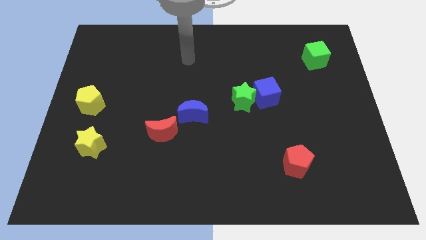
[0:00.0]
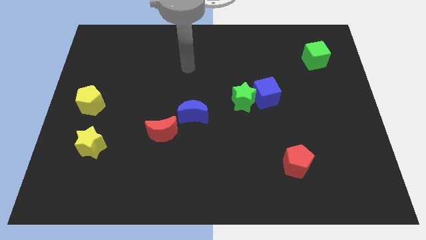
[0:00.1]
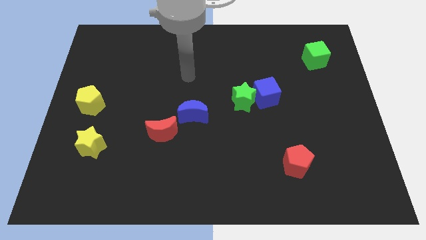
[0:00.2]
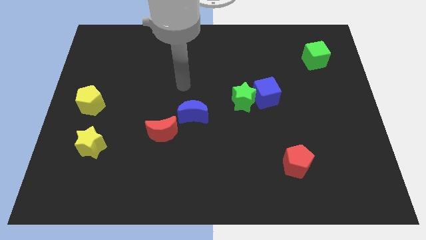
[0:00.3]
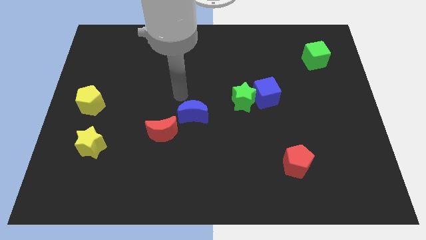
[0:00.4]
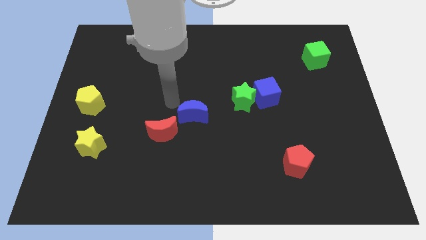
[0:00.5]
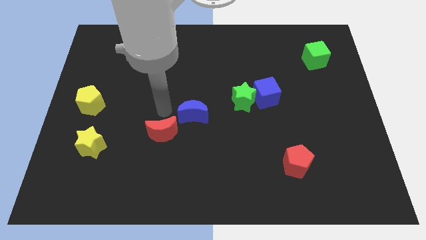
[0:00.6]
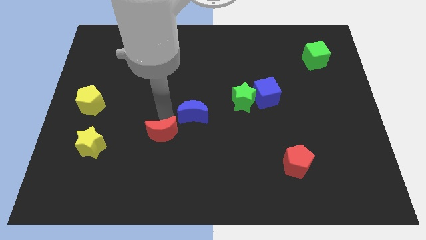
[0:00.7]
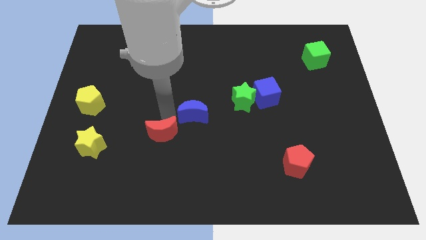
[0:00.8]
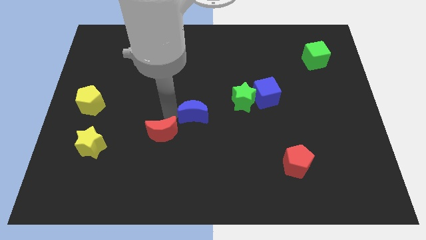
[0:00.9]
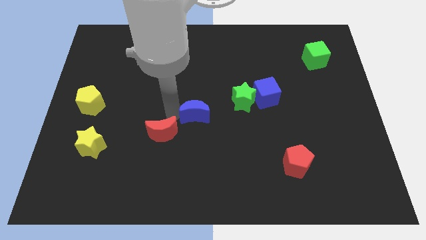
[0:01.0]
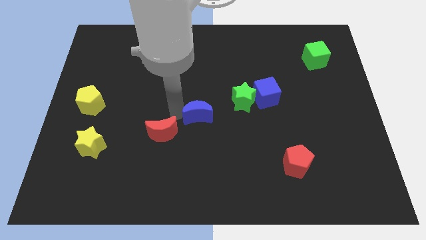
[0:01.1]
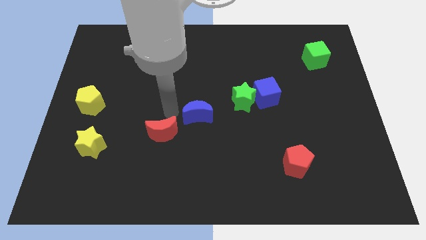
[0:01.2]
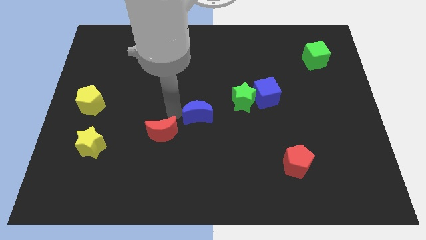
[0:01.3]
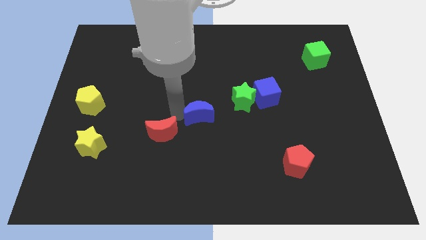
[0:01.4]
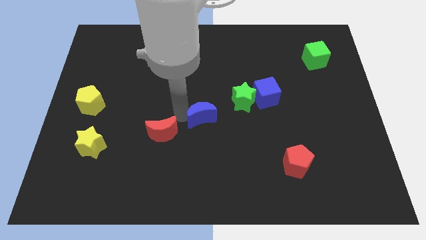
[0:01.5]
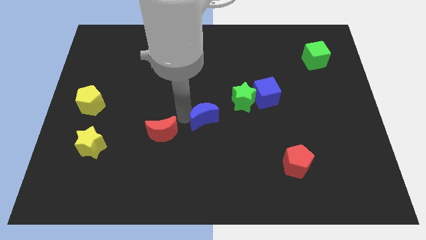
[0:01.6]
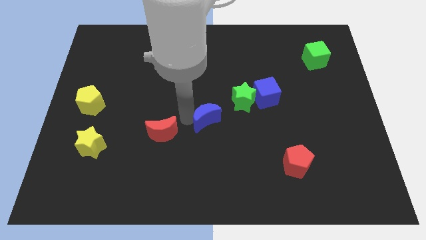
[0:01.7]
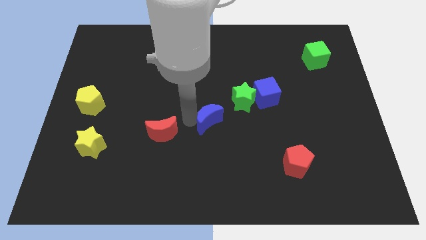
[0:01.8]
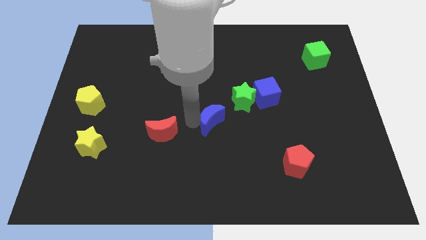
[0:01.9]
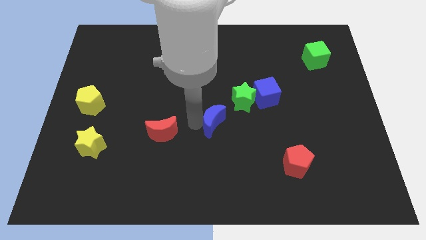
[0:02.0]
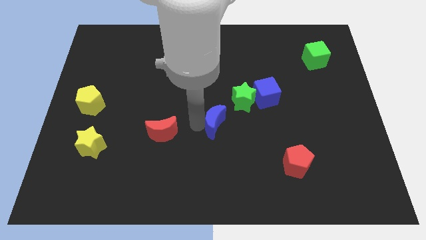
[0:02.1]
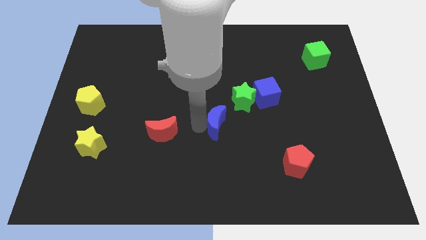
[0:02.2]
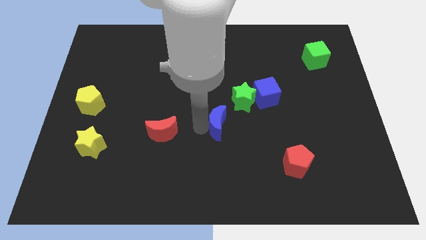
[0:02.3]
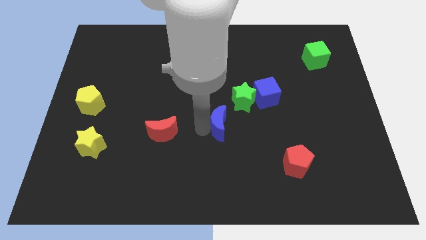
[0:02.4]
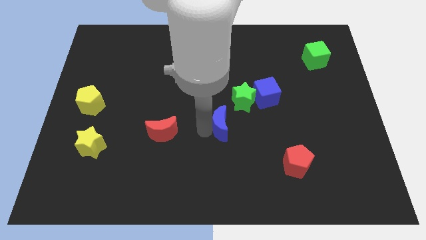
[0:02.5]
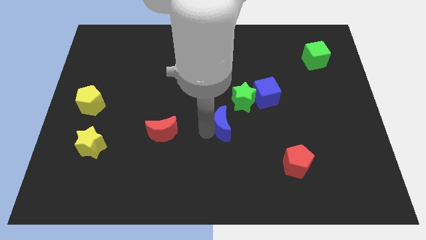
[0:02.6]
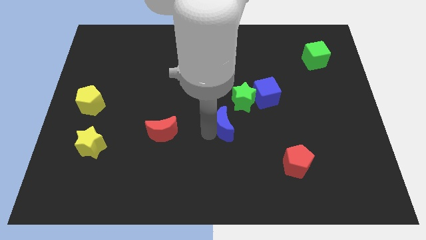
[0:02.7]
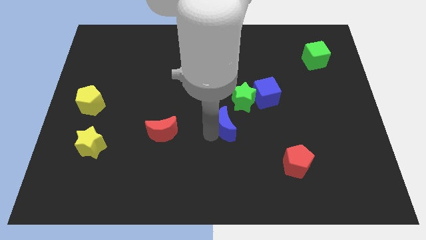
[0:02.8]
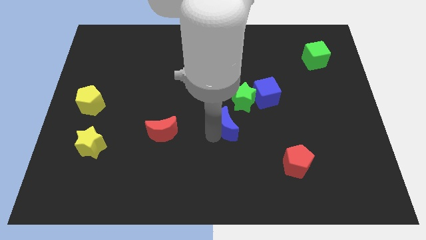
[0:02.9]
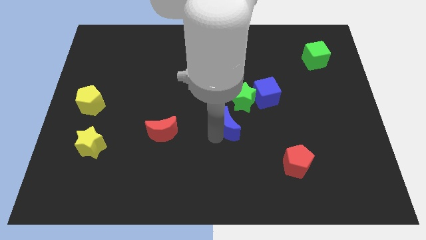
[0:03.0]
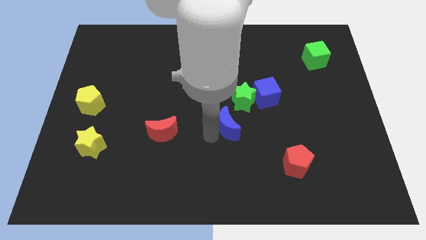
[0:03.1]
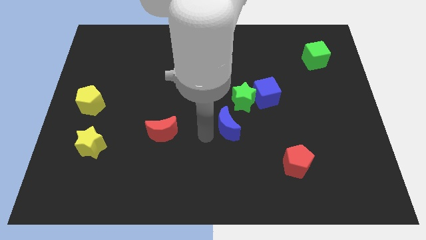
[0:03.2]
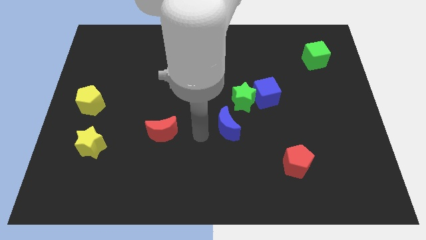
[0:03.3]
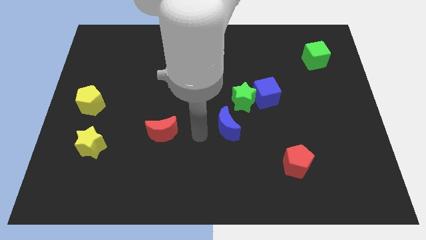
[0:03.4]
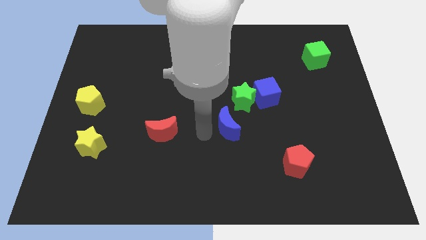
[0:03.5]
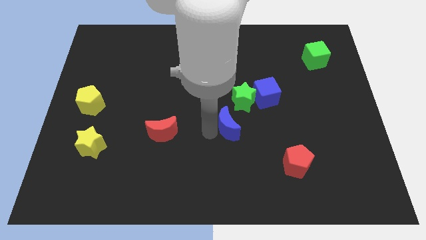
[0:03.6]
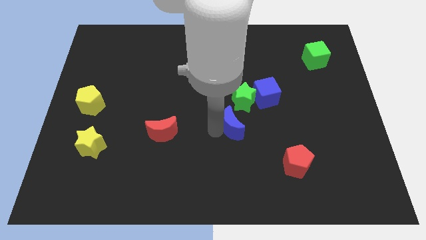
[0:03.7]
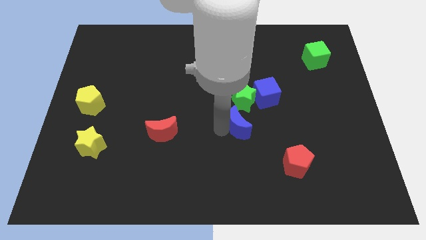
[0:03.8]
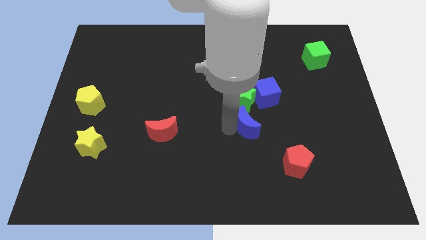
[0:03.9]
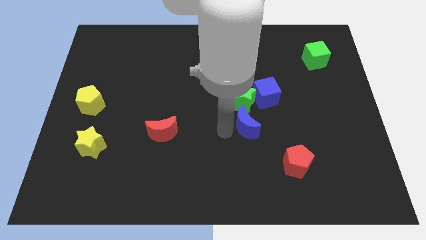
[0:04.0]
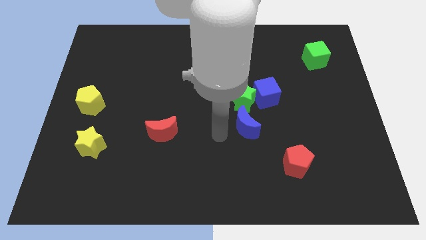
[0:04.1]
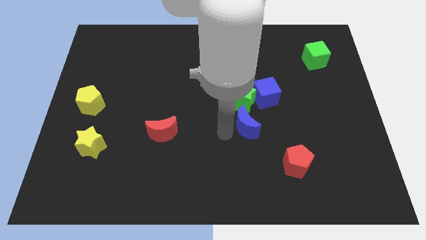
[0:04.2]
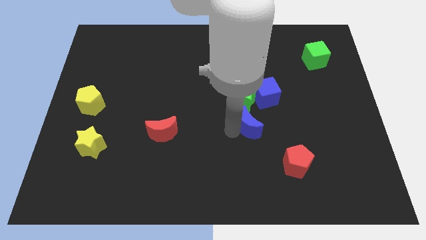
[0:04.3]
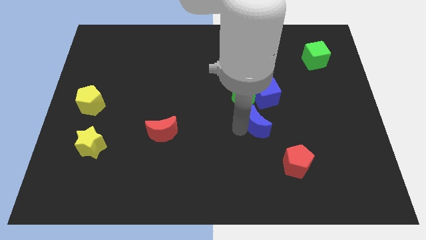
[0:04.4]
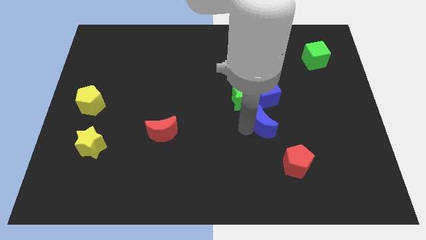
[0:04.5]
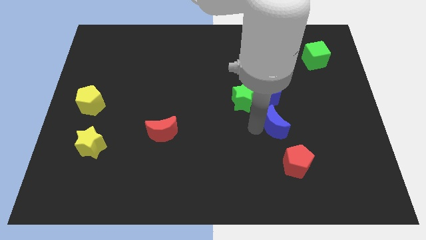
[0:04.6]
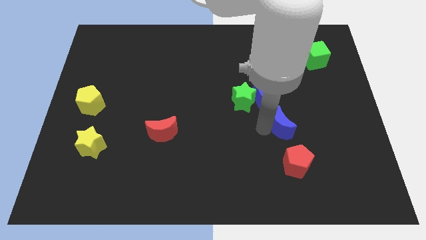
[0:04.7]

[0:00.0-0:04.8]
slide the blue moon to the bottom right side of the blue cube

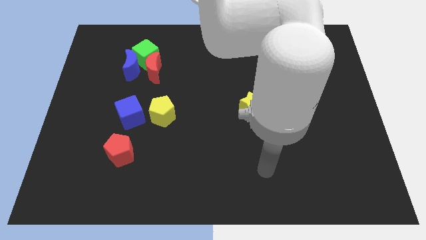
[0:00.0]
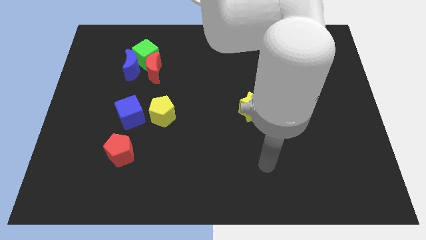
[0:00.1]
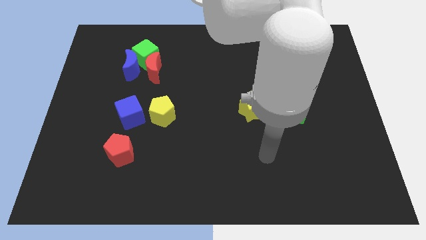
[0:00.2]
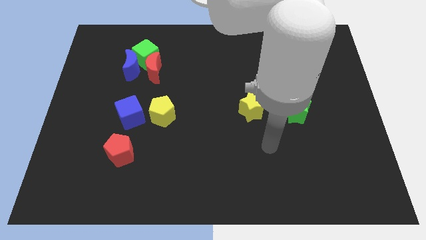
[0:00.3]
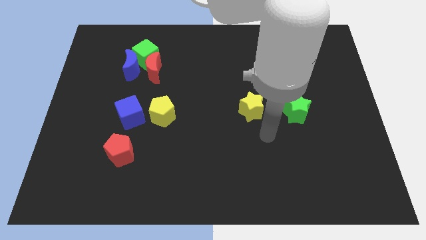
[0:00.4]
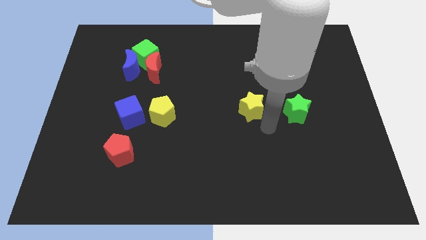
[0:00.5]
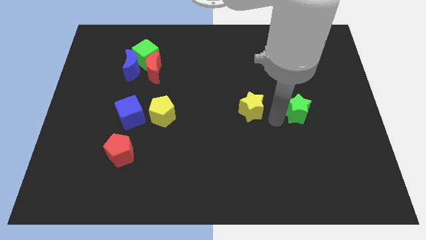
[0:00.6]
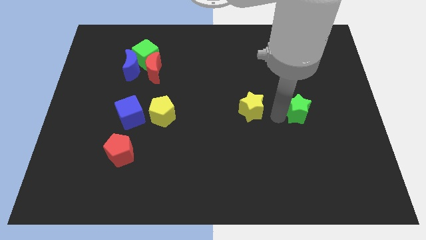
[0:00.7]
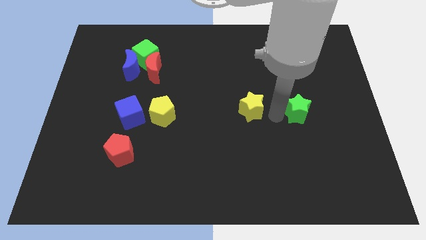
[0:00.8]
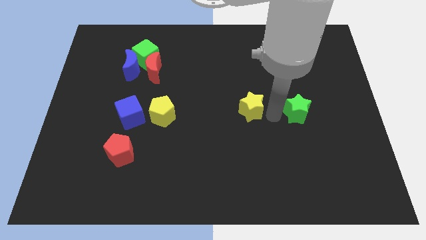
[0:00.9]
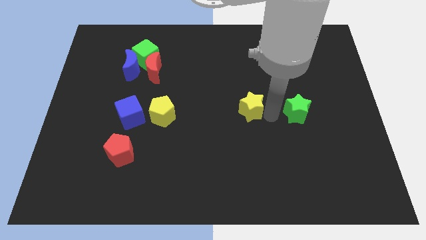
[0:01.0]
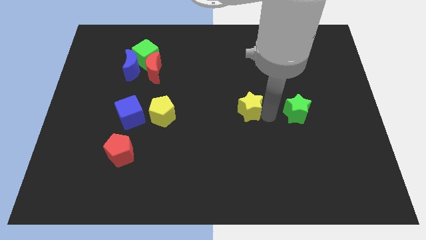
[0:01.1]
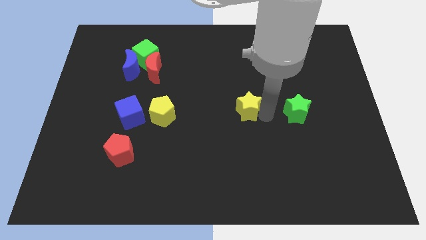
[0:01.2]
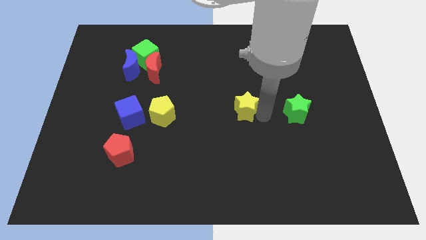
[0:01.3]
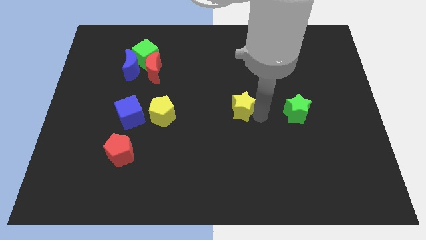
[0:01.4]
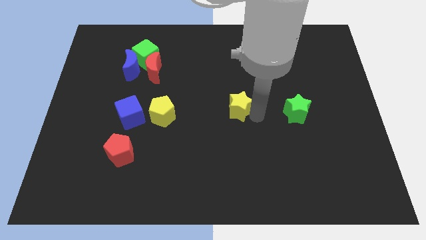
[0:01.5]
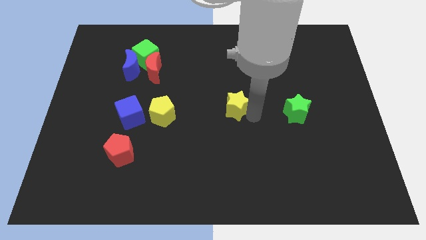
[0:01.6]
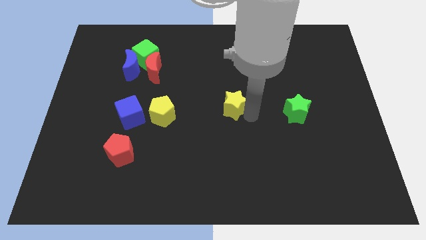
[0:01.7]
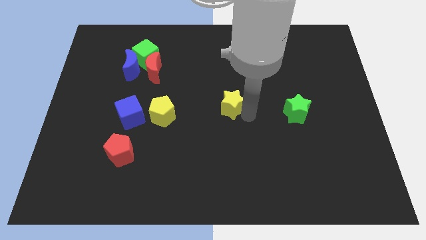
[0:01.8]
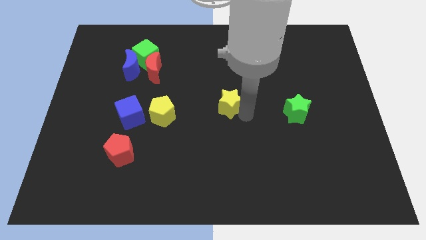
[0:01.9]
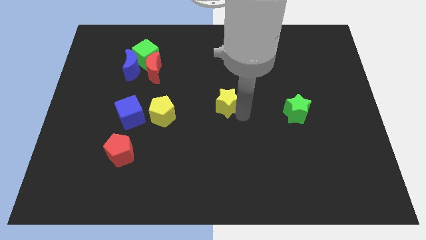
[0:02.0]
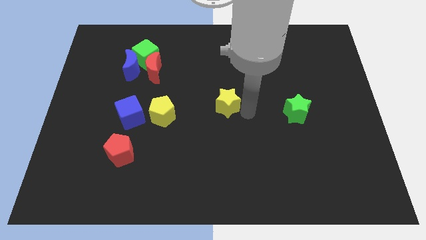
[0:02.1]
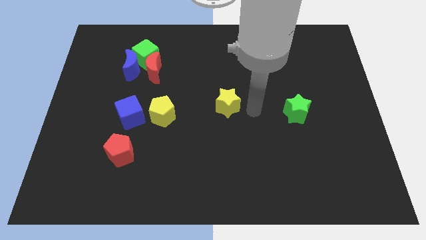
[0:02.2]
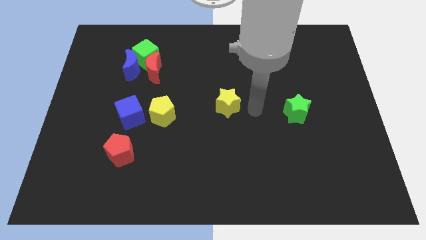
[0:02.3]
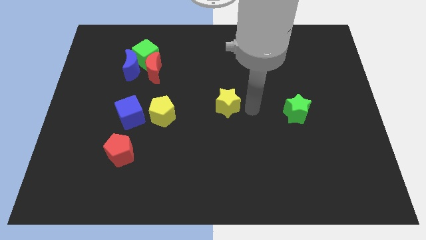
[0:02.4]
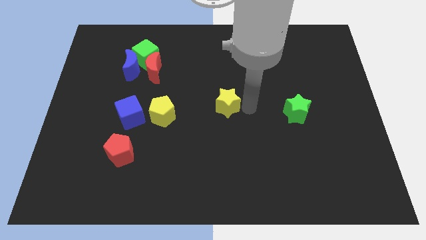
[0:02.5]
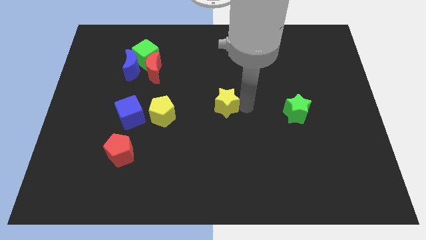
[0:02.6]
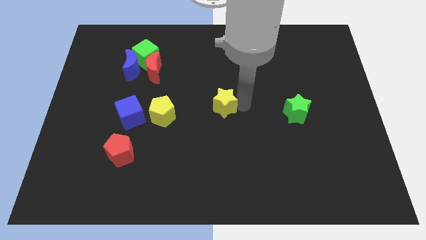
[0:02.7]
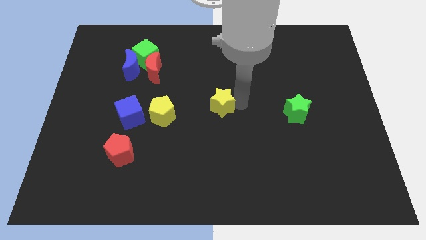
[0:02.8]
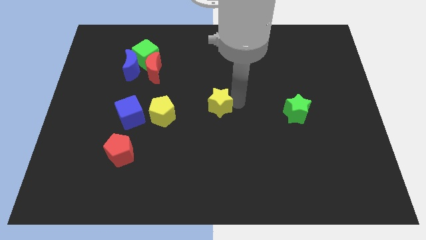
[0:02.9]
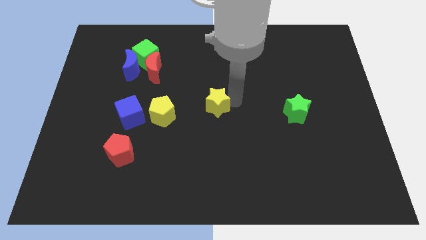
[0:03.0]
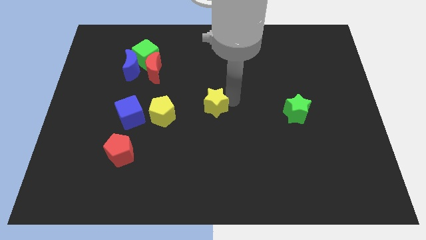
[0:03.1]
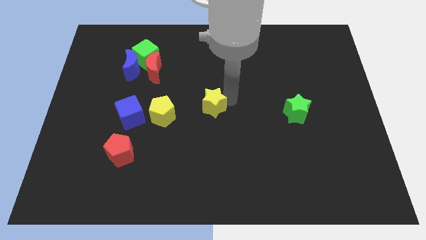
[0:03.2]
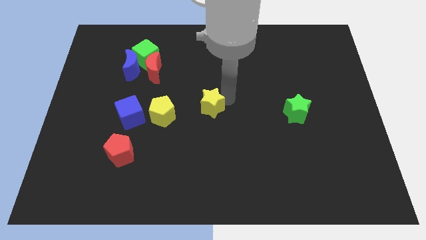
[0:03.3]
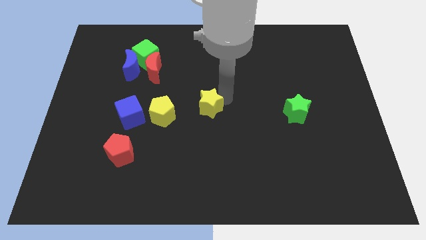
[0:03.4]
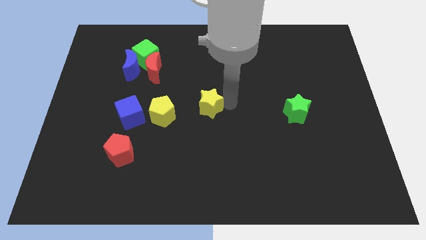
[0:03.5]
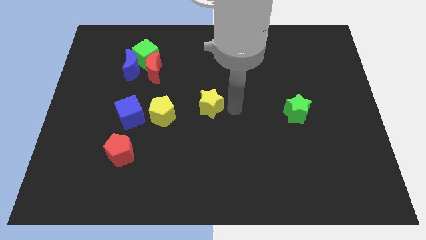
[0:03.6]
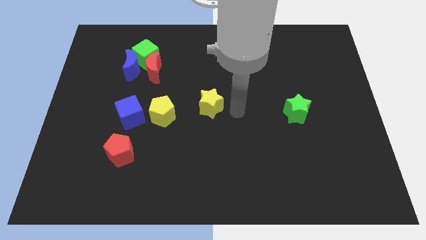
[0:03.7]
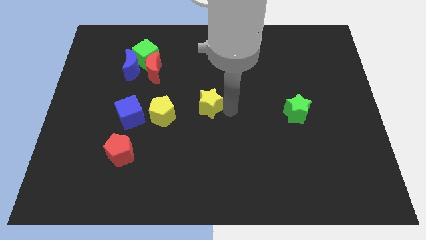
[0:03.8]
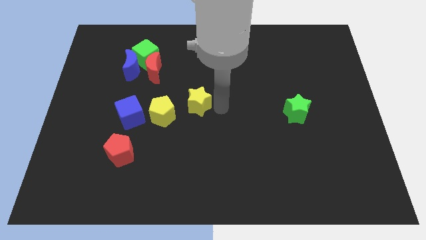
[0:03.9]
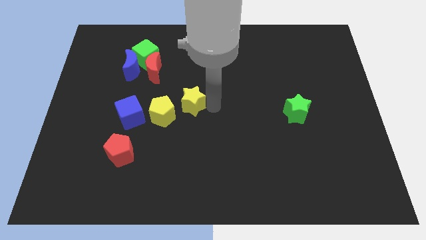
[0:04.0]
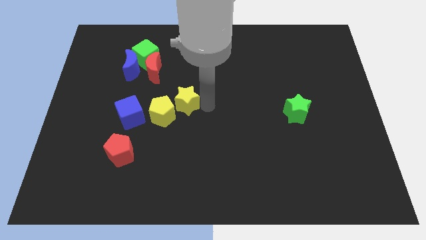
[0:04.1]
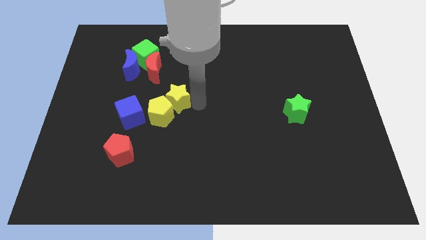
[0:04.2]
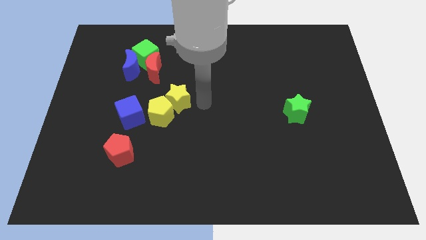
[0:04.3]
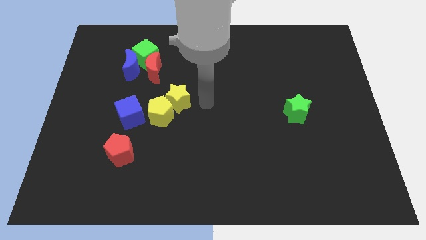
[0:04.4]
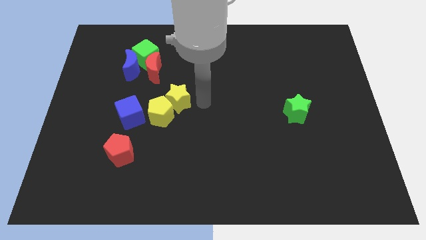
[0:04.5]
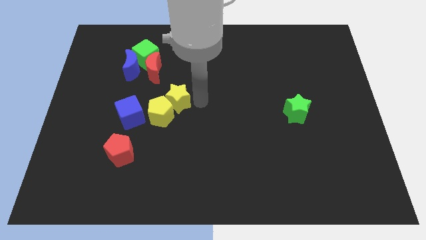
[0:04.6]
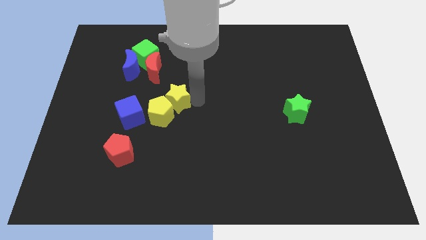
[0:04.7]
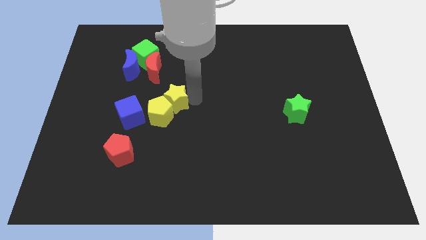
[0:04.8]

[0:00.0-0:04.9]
put the yellow star to the top right of the blue cube
